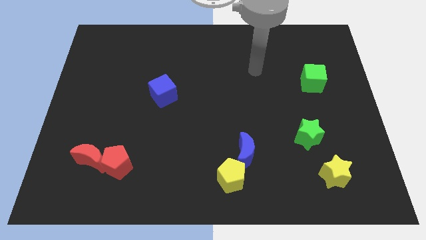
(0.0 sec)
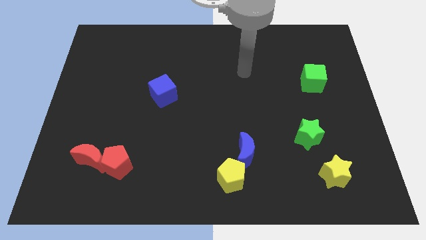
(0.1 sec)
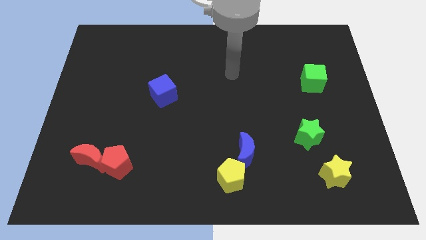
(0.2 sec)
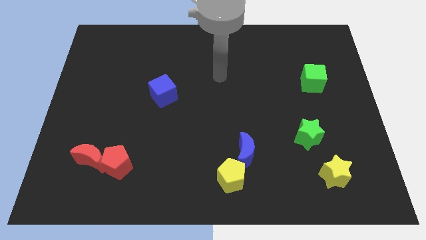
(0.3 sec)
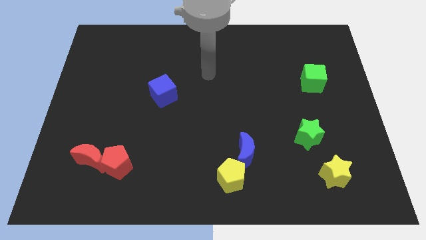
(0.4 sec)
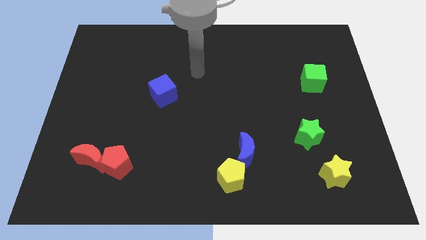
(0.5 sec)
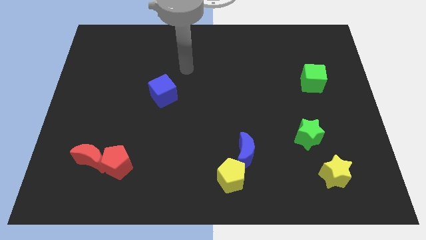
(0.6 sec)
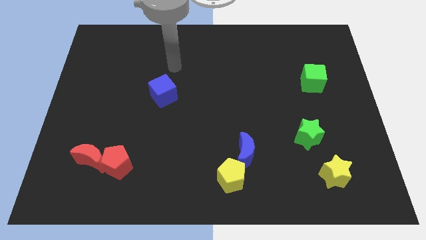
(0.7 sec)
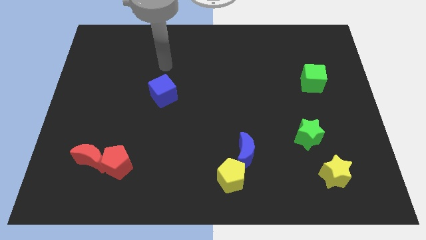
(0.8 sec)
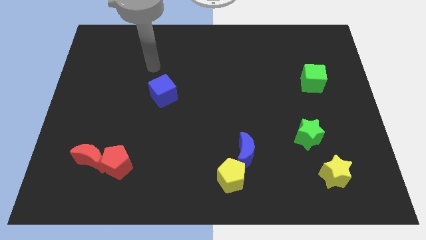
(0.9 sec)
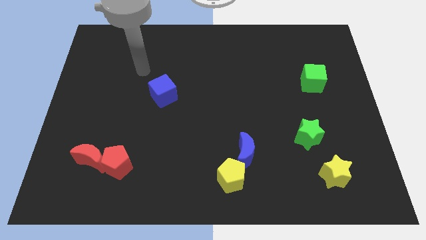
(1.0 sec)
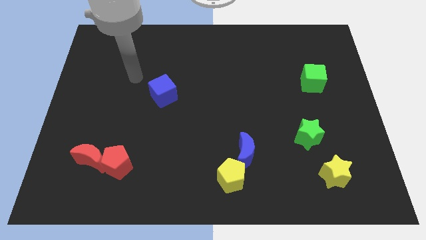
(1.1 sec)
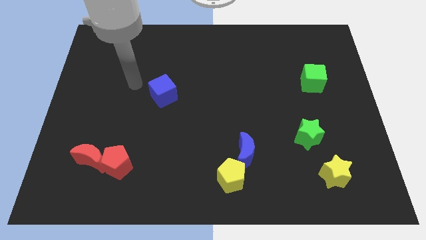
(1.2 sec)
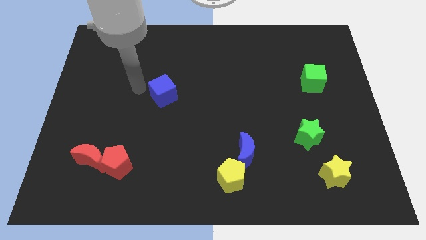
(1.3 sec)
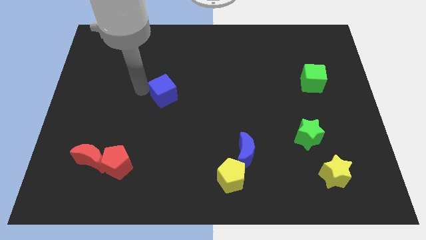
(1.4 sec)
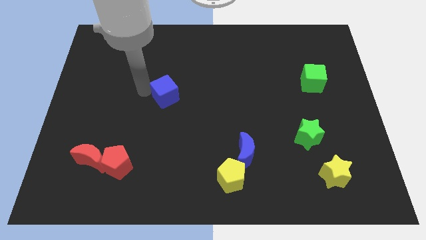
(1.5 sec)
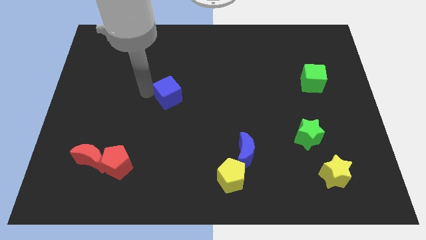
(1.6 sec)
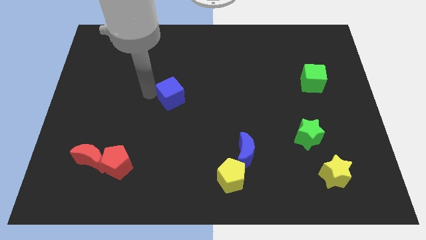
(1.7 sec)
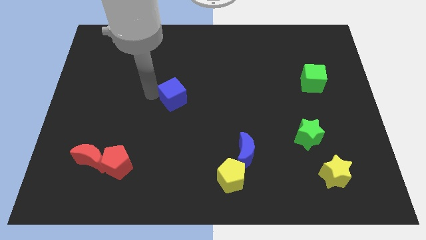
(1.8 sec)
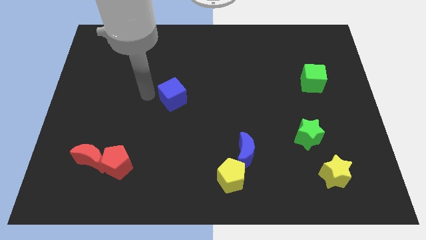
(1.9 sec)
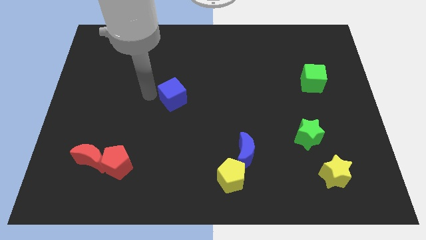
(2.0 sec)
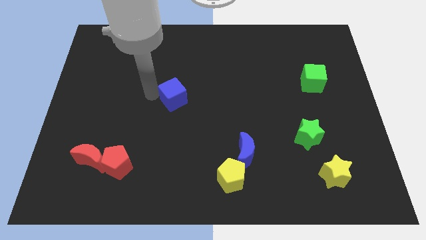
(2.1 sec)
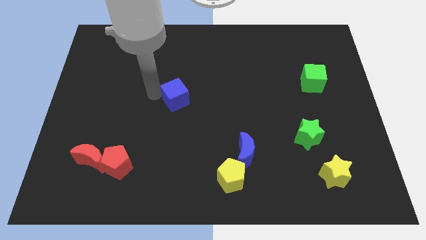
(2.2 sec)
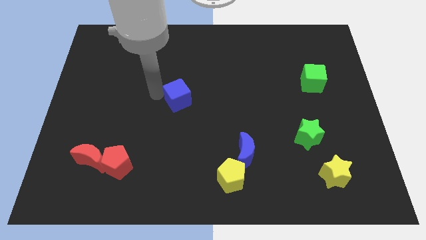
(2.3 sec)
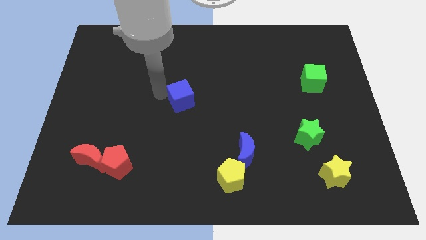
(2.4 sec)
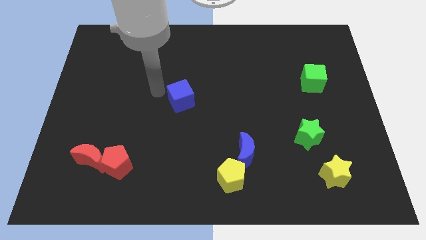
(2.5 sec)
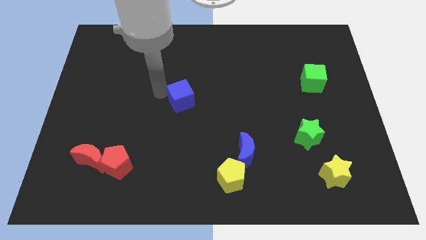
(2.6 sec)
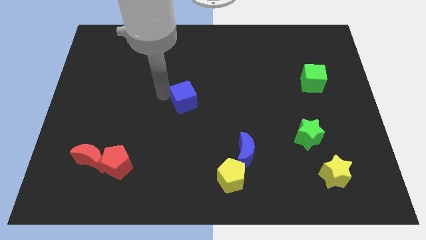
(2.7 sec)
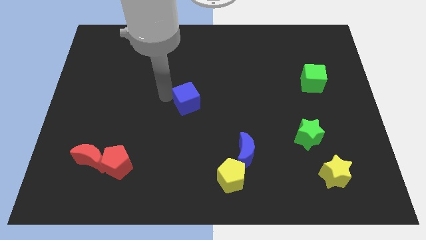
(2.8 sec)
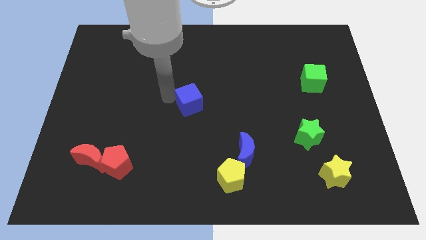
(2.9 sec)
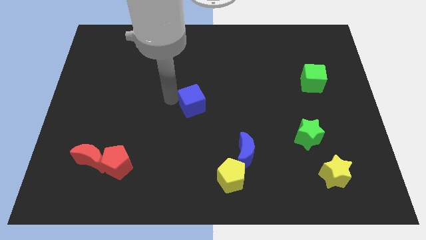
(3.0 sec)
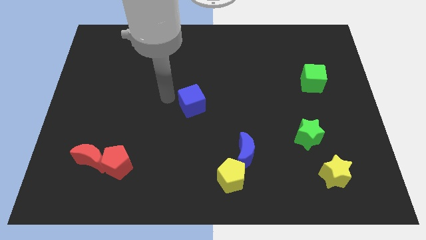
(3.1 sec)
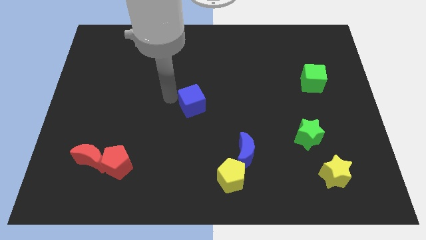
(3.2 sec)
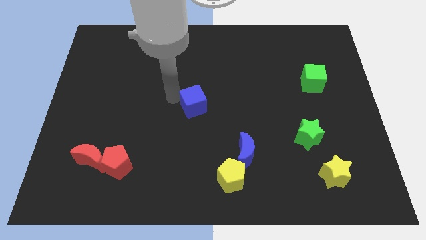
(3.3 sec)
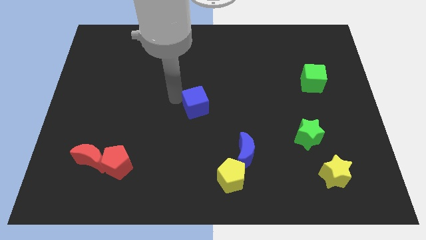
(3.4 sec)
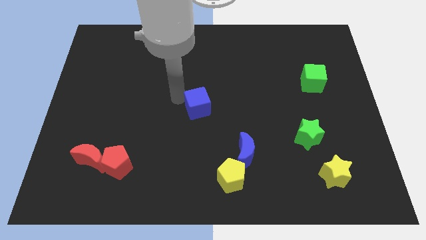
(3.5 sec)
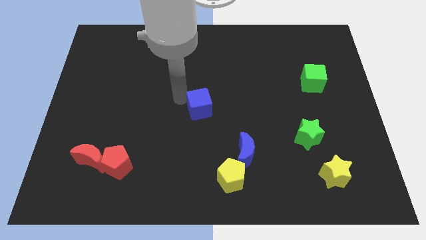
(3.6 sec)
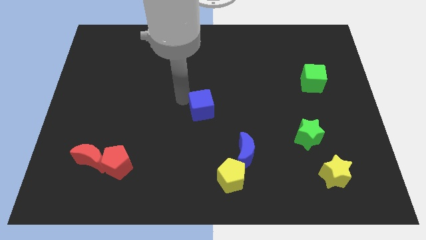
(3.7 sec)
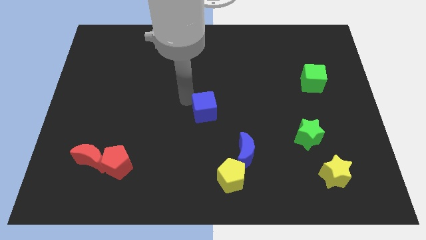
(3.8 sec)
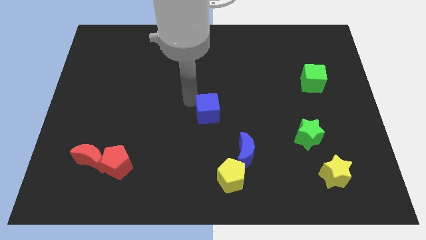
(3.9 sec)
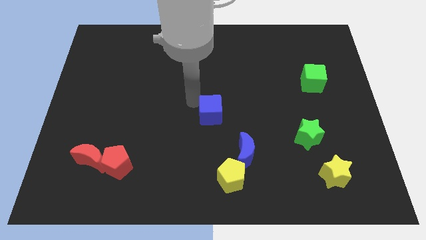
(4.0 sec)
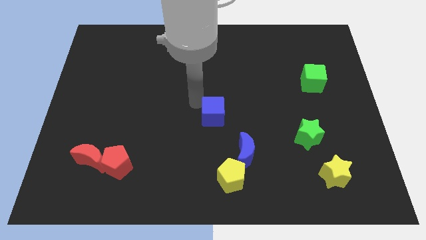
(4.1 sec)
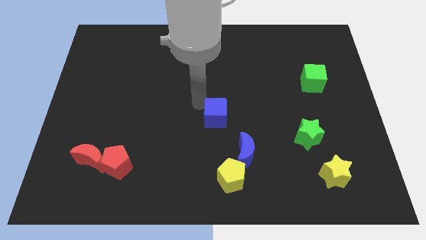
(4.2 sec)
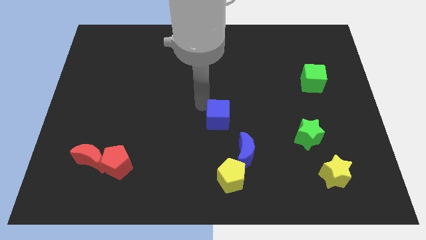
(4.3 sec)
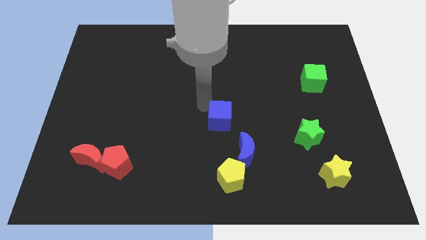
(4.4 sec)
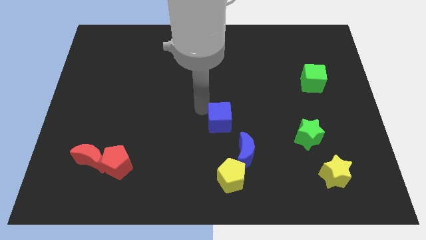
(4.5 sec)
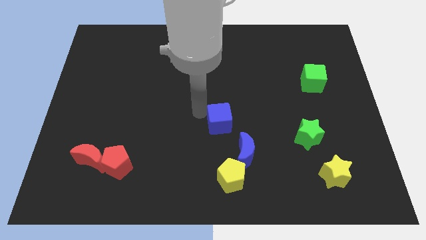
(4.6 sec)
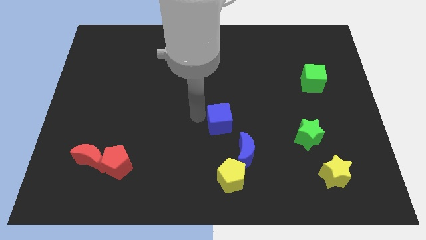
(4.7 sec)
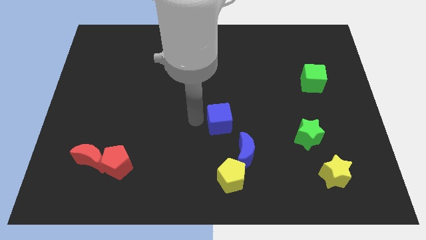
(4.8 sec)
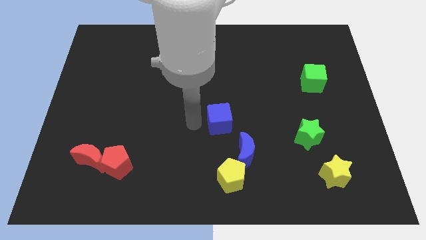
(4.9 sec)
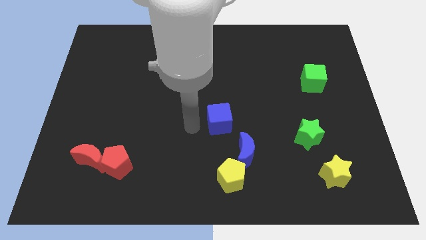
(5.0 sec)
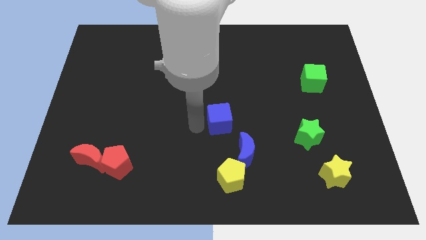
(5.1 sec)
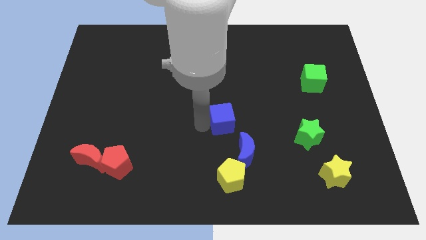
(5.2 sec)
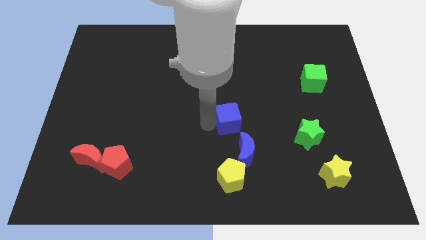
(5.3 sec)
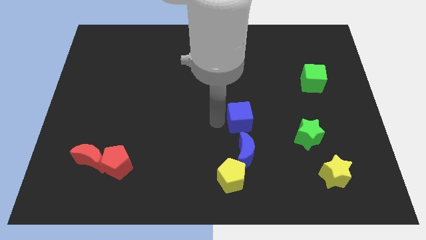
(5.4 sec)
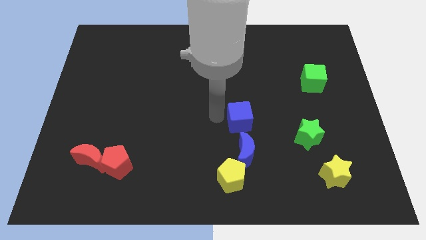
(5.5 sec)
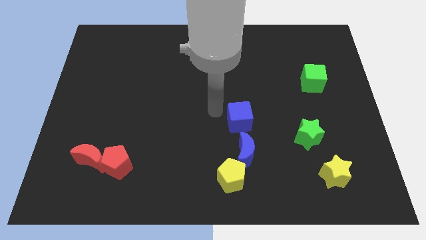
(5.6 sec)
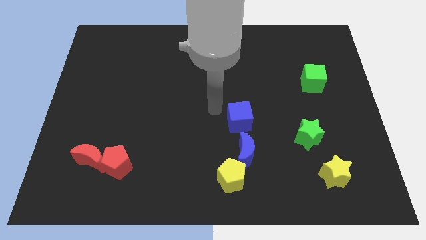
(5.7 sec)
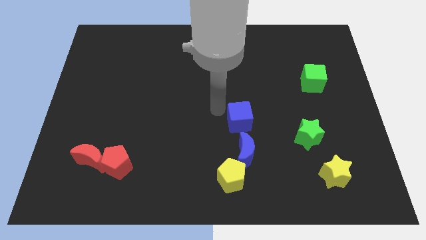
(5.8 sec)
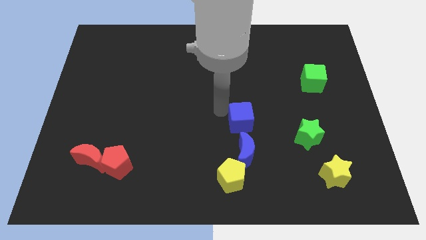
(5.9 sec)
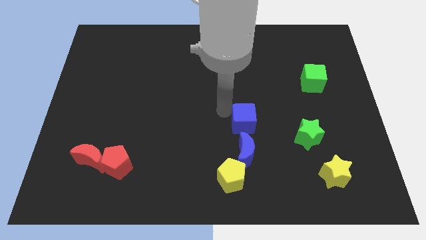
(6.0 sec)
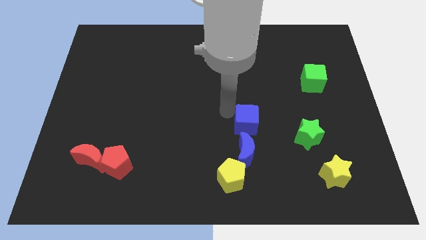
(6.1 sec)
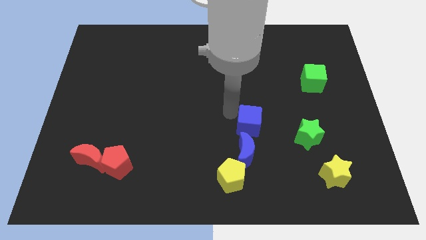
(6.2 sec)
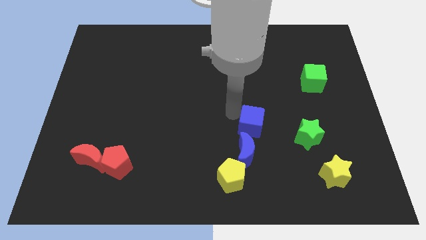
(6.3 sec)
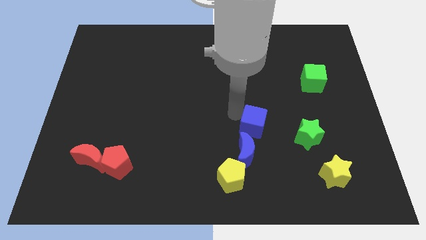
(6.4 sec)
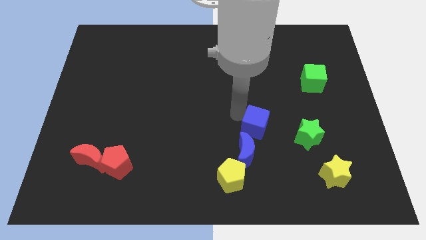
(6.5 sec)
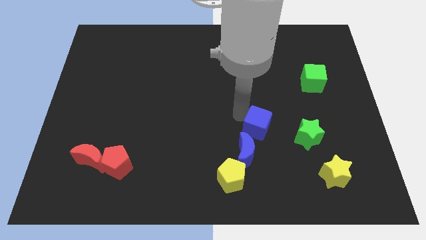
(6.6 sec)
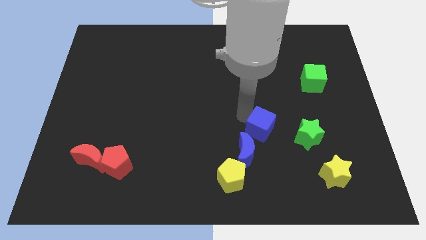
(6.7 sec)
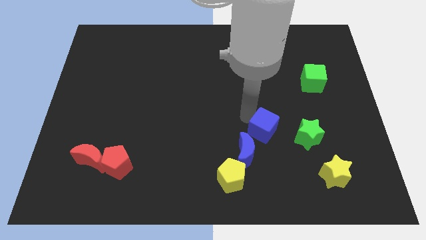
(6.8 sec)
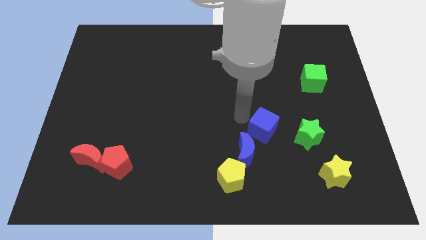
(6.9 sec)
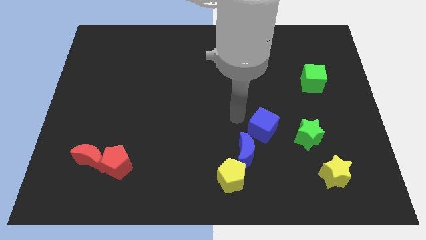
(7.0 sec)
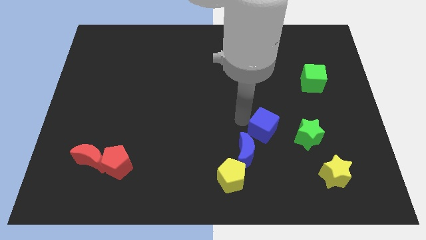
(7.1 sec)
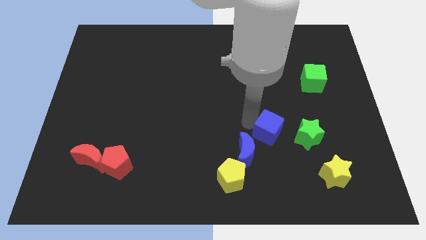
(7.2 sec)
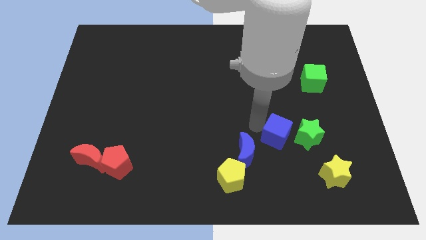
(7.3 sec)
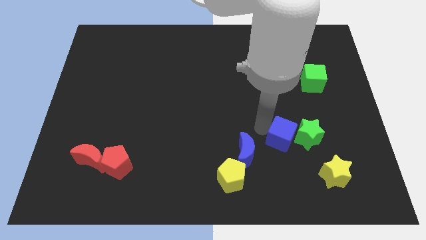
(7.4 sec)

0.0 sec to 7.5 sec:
push the blue cube to the green star
